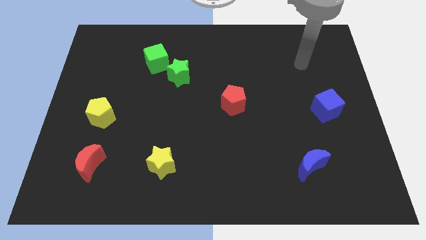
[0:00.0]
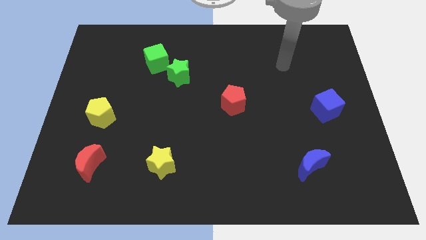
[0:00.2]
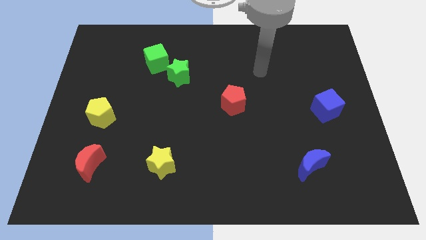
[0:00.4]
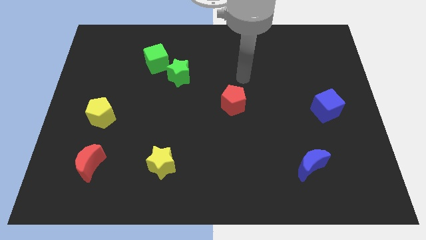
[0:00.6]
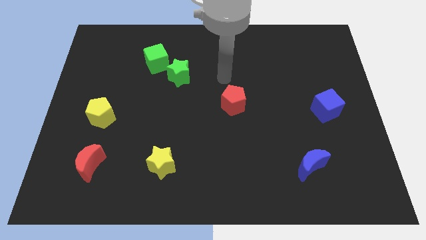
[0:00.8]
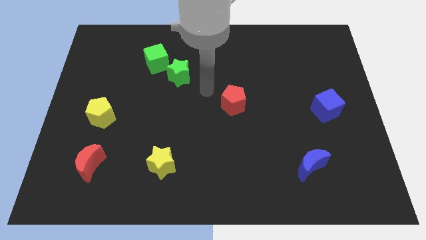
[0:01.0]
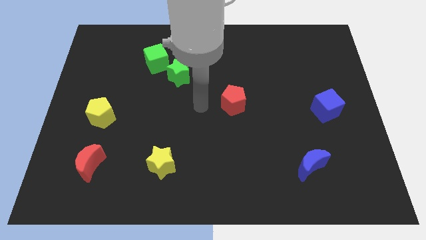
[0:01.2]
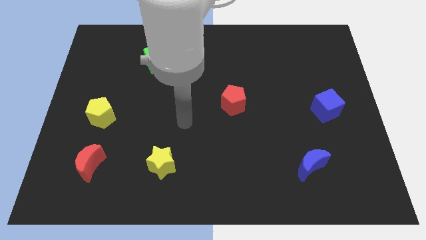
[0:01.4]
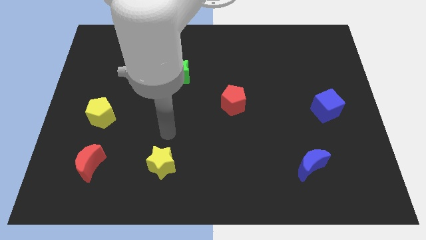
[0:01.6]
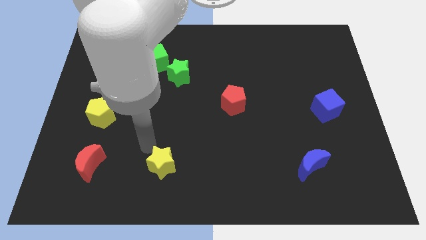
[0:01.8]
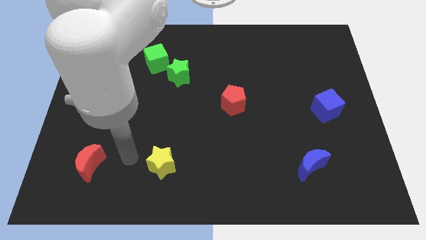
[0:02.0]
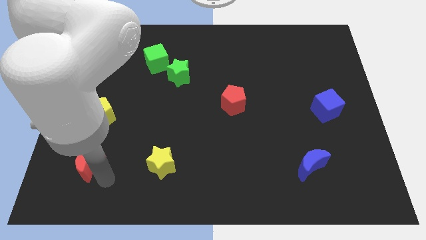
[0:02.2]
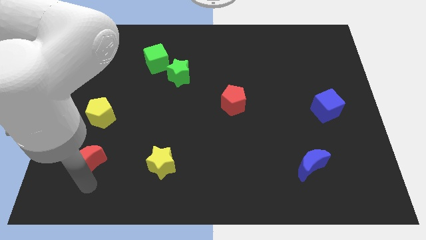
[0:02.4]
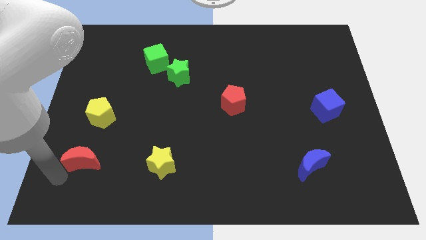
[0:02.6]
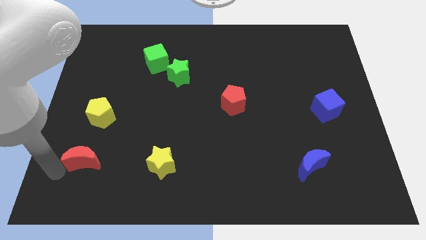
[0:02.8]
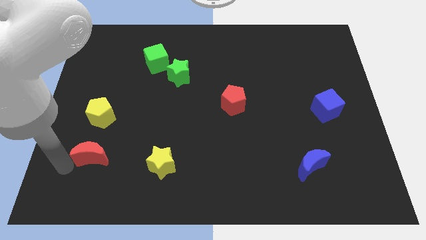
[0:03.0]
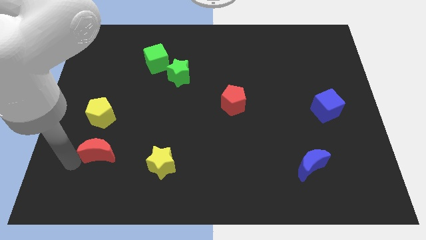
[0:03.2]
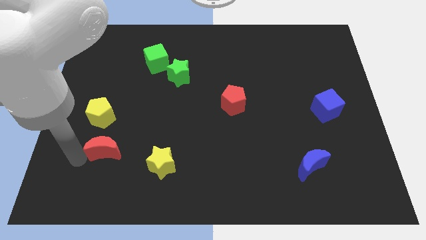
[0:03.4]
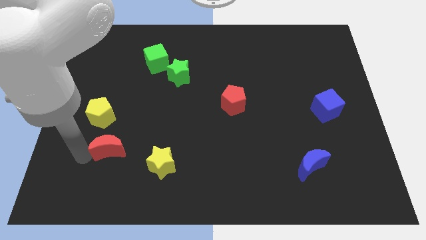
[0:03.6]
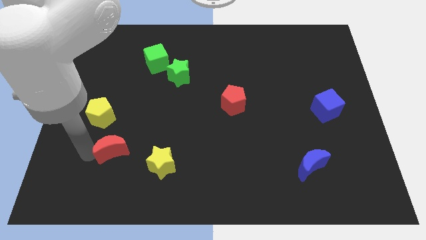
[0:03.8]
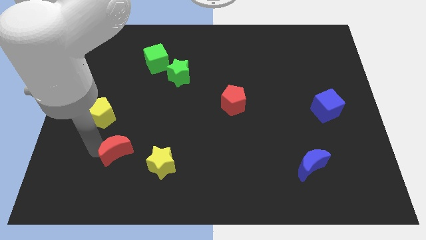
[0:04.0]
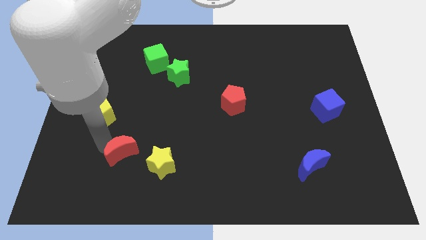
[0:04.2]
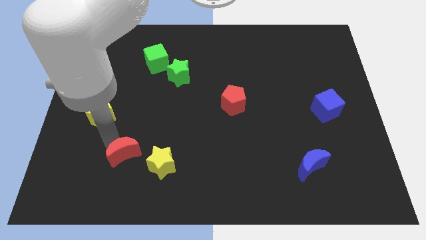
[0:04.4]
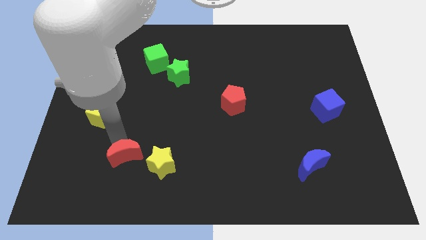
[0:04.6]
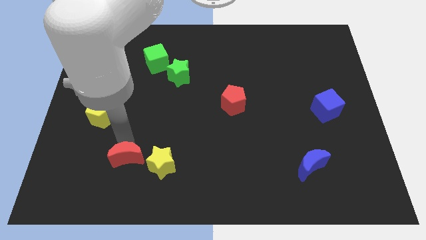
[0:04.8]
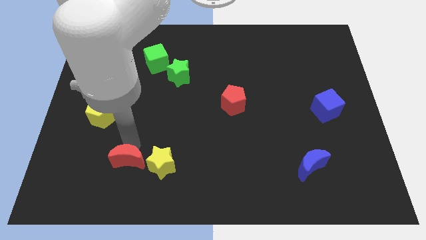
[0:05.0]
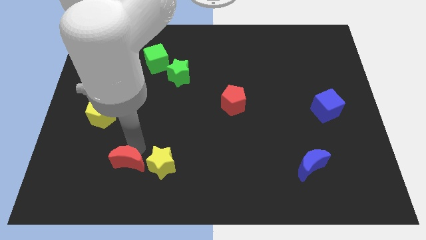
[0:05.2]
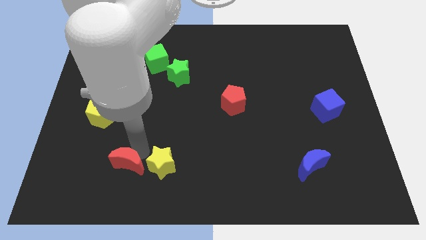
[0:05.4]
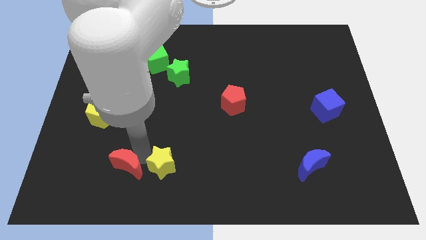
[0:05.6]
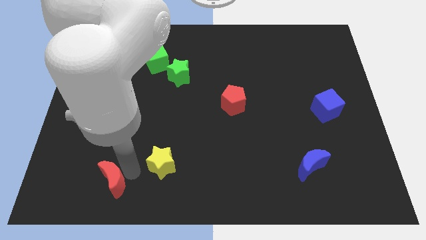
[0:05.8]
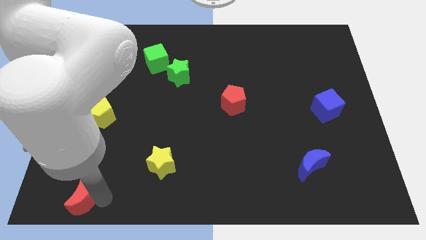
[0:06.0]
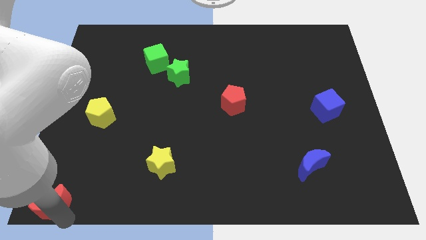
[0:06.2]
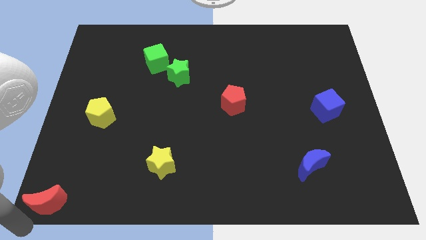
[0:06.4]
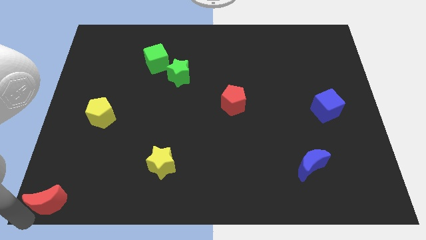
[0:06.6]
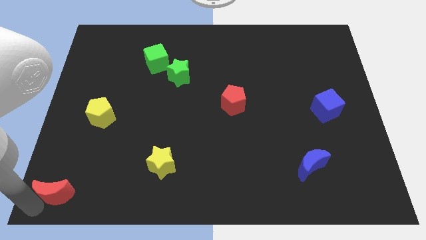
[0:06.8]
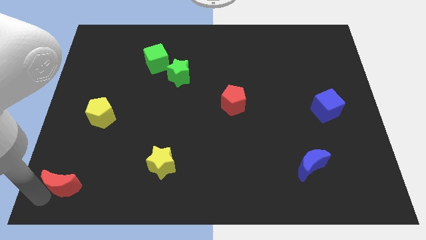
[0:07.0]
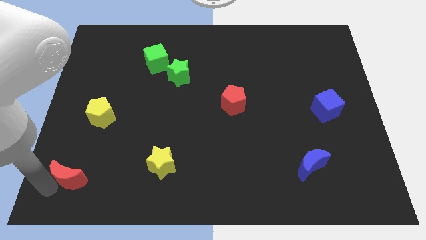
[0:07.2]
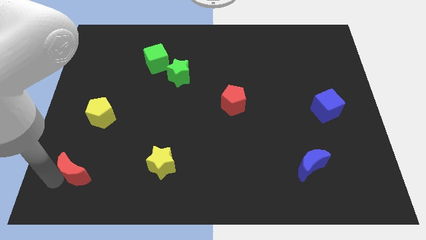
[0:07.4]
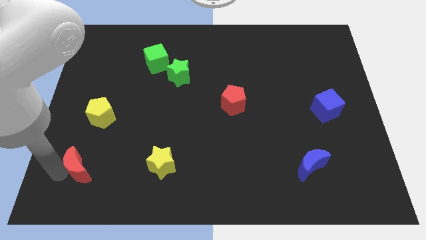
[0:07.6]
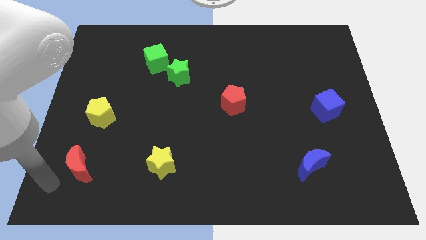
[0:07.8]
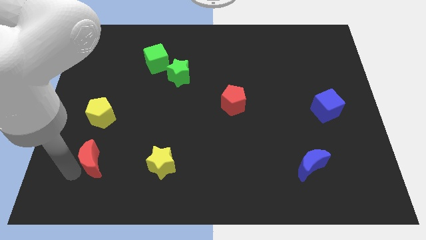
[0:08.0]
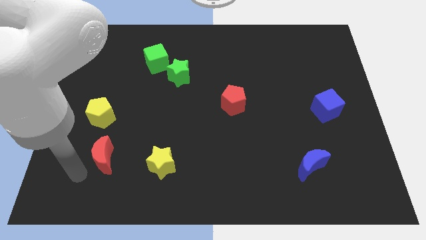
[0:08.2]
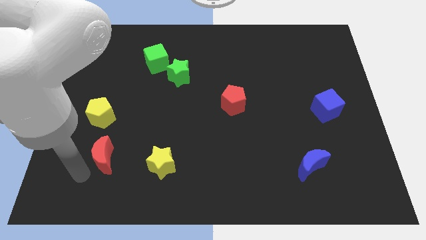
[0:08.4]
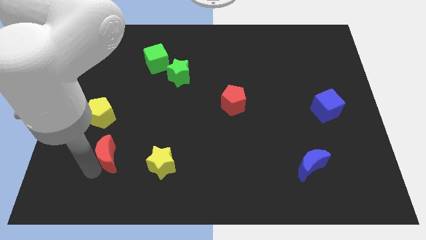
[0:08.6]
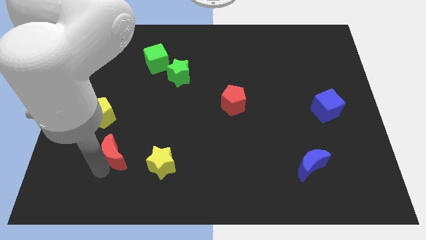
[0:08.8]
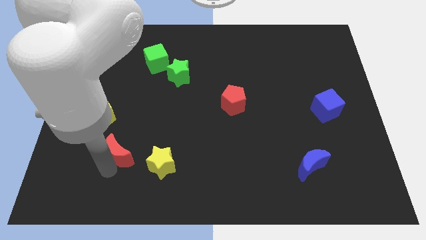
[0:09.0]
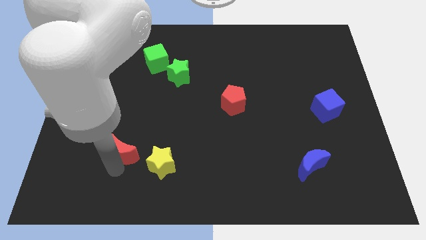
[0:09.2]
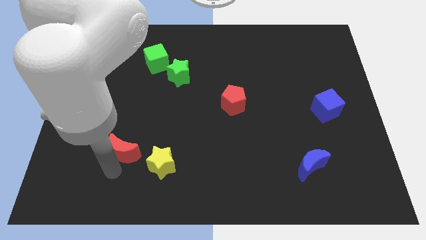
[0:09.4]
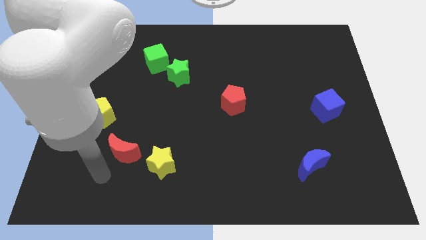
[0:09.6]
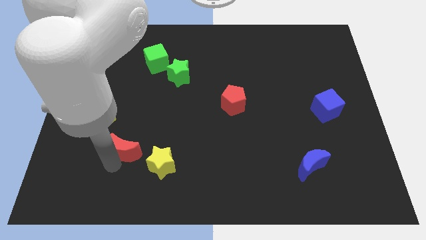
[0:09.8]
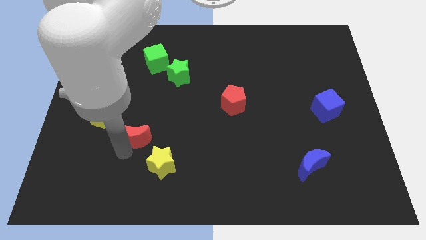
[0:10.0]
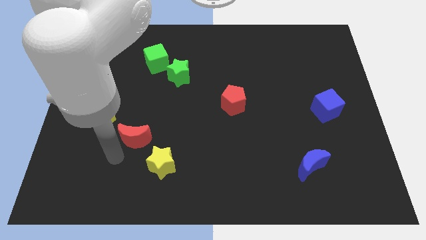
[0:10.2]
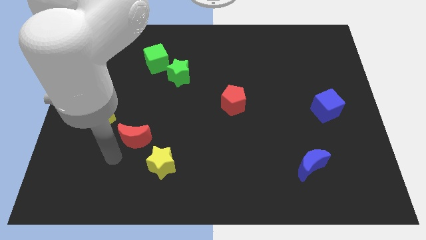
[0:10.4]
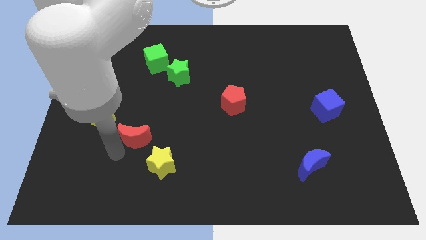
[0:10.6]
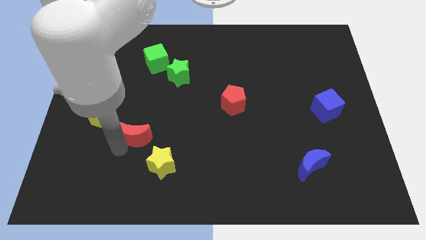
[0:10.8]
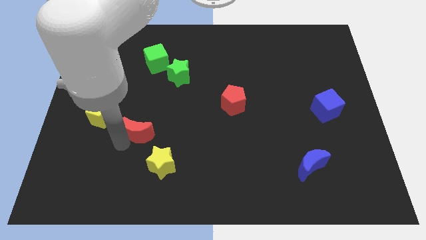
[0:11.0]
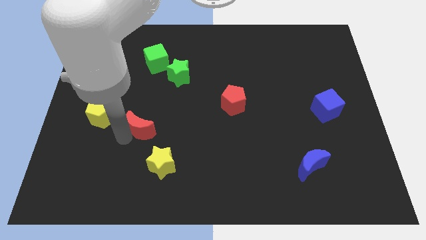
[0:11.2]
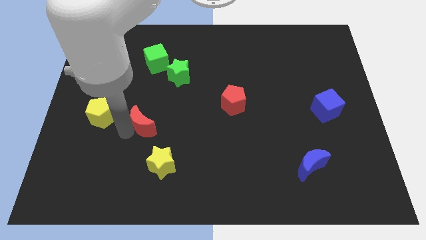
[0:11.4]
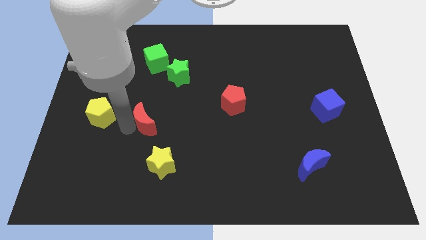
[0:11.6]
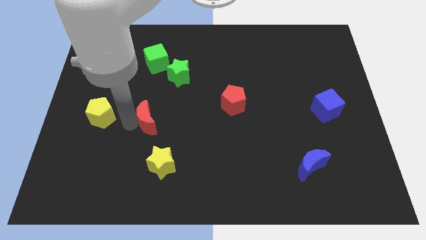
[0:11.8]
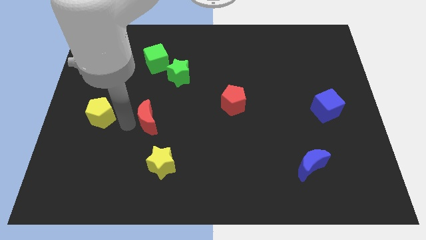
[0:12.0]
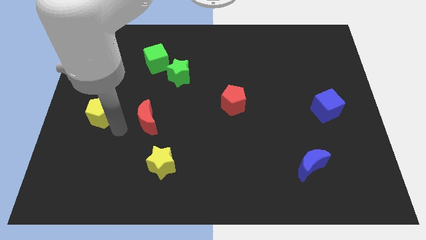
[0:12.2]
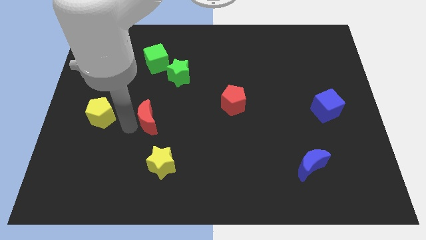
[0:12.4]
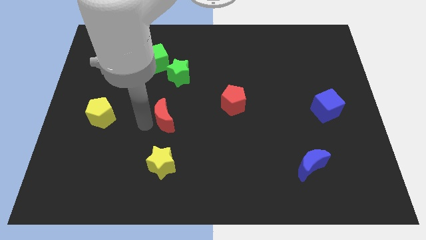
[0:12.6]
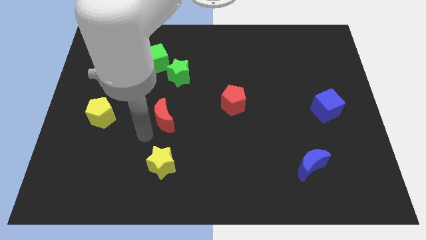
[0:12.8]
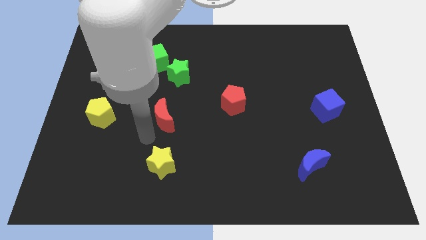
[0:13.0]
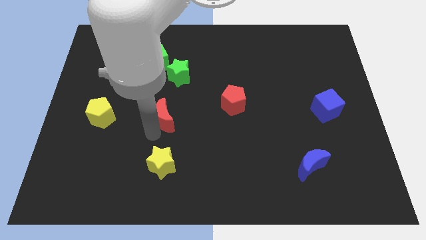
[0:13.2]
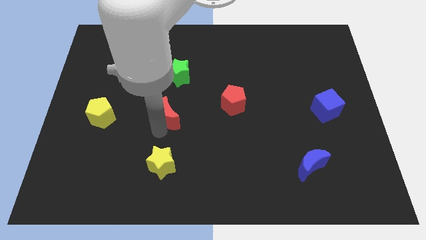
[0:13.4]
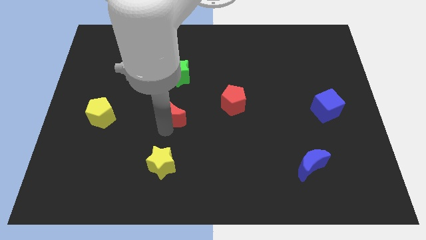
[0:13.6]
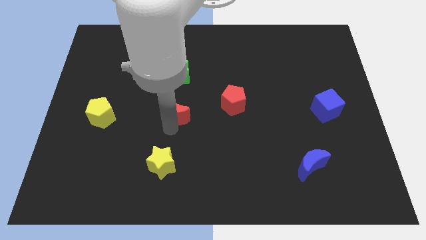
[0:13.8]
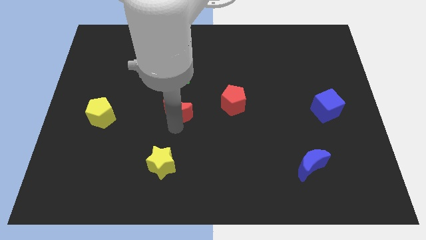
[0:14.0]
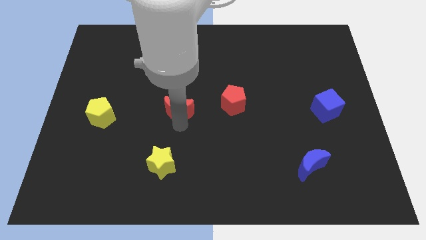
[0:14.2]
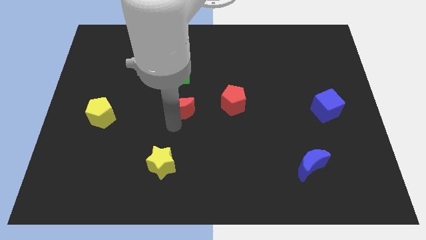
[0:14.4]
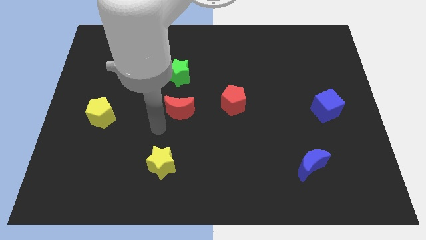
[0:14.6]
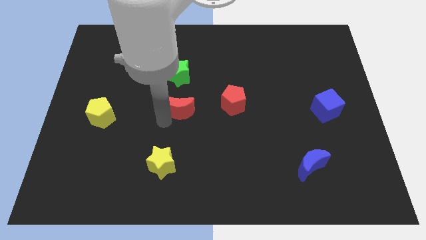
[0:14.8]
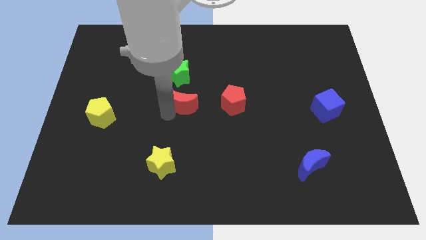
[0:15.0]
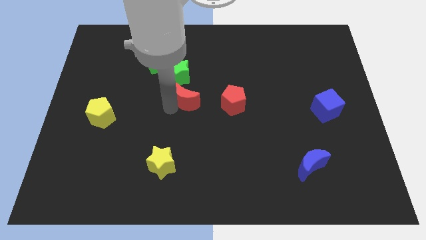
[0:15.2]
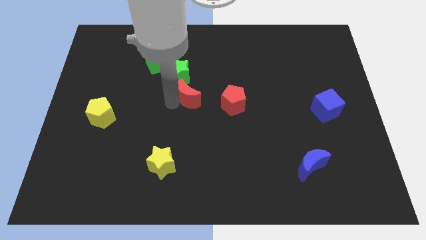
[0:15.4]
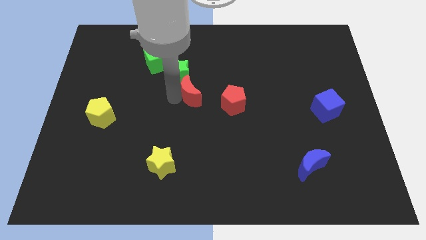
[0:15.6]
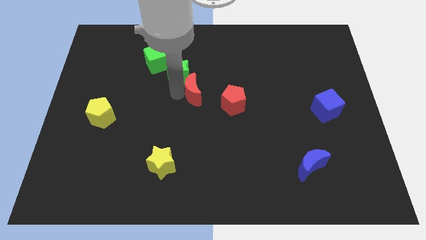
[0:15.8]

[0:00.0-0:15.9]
put the red moon to the top left of the red pentagon
